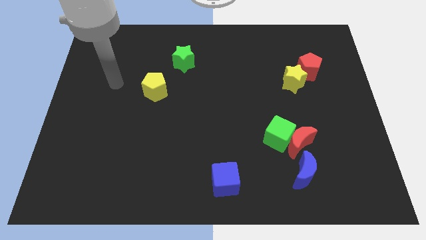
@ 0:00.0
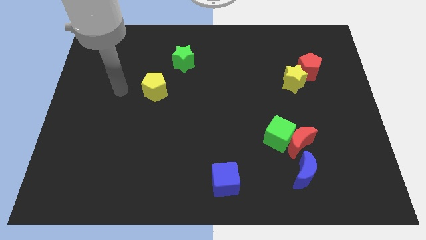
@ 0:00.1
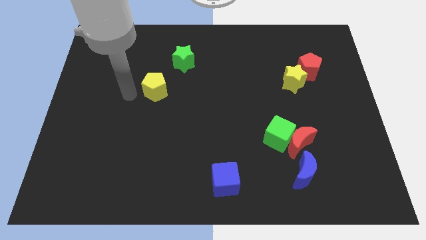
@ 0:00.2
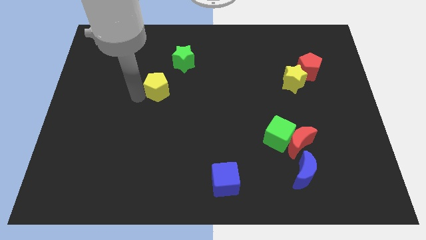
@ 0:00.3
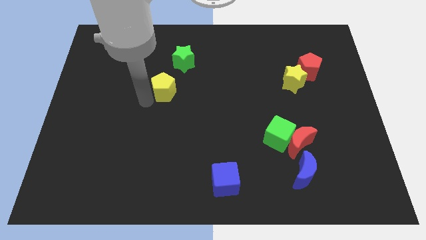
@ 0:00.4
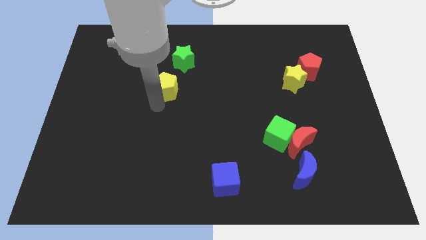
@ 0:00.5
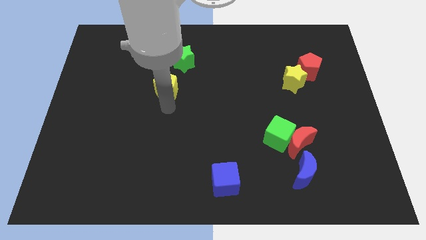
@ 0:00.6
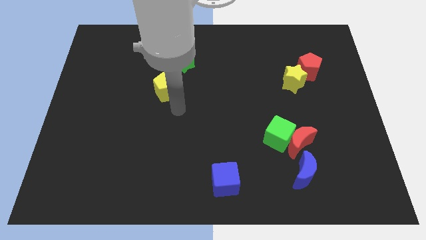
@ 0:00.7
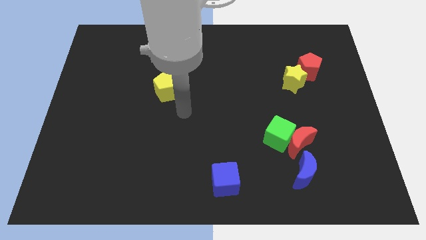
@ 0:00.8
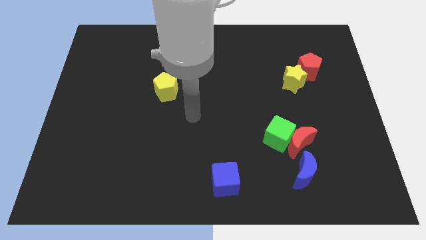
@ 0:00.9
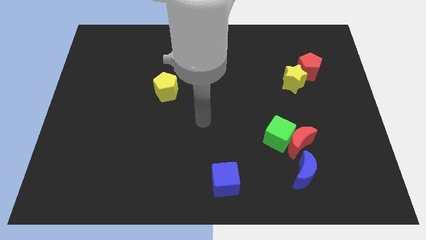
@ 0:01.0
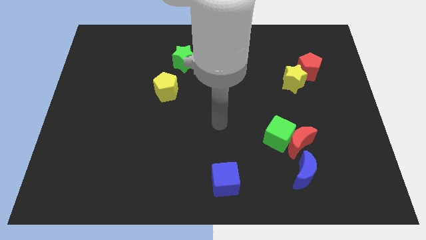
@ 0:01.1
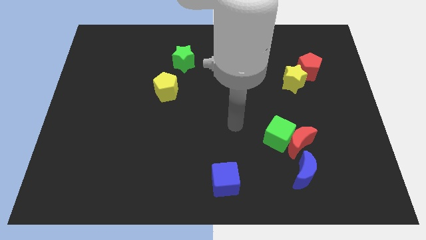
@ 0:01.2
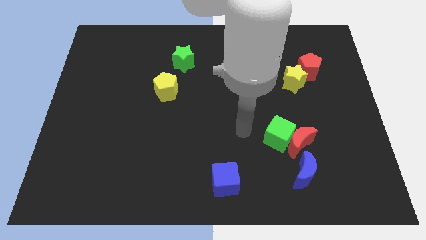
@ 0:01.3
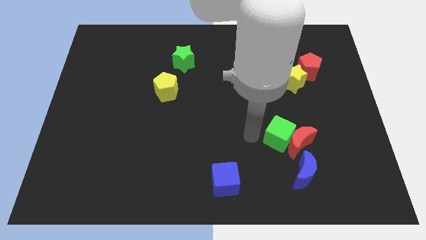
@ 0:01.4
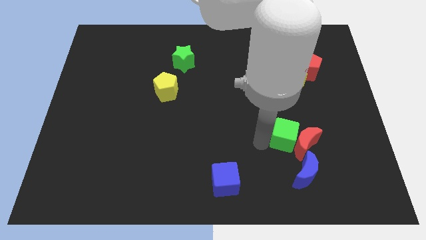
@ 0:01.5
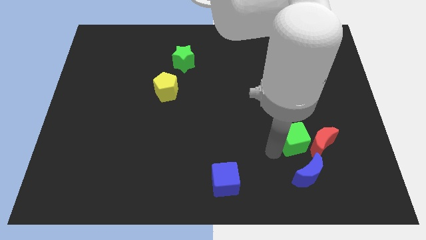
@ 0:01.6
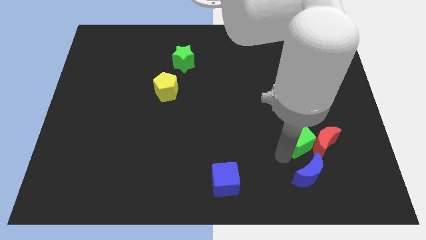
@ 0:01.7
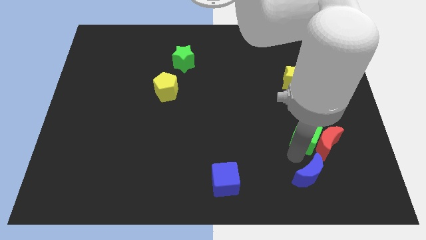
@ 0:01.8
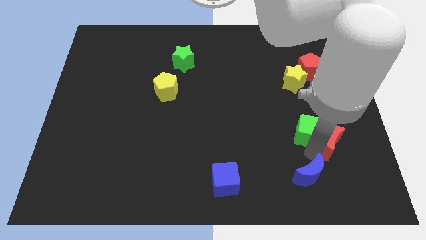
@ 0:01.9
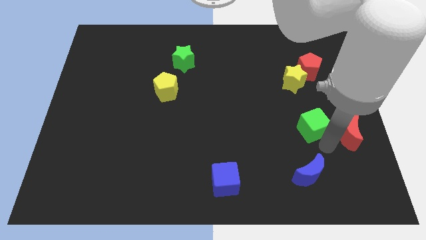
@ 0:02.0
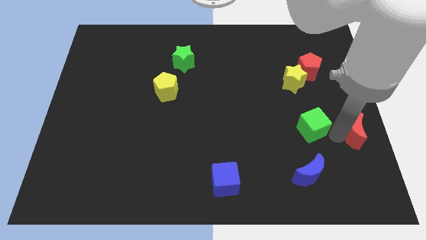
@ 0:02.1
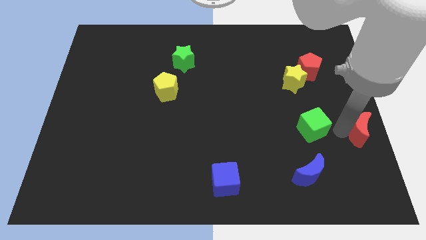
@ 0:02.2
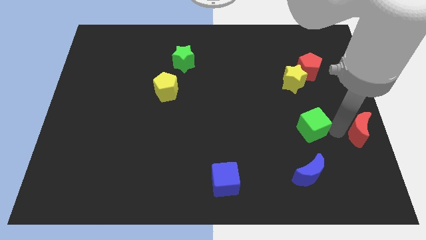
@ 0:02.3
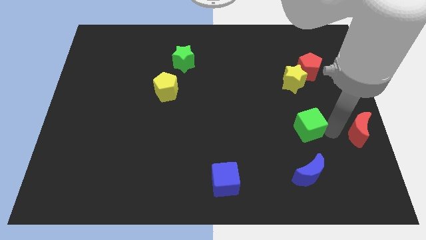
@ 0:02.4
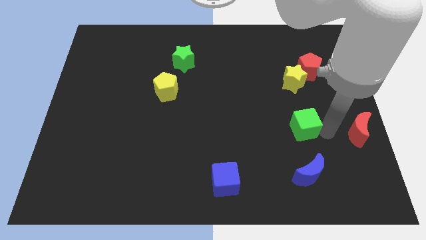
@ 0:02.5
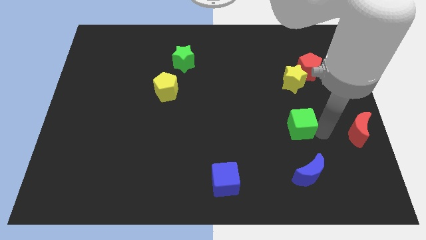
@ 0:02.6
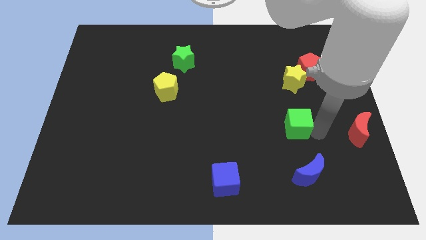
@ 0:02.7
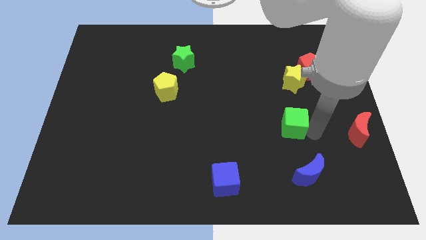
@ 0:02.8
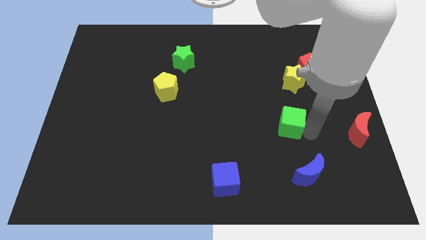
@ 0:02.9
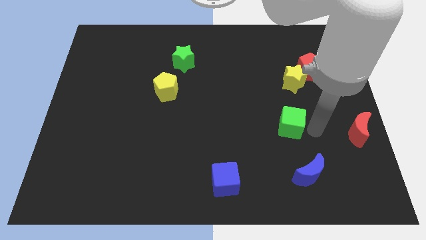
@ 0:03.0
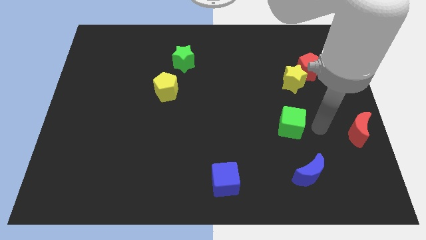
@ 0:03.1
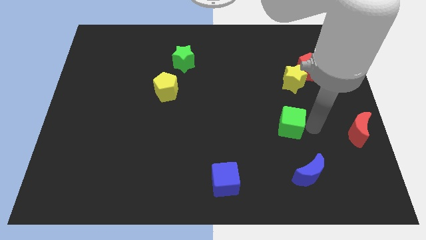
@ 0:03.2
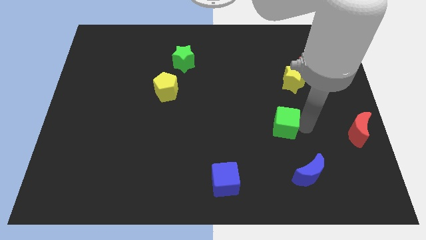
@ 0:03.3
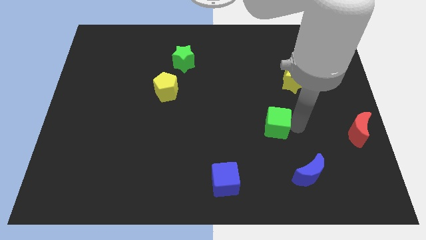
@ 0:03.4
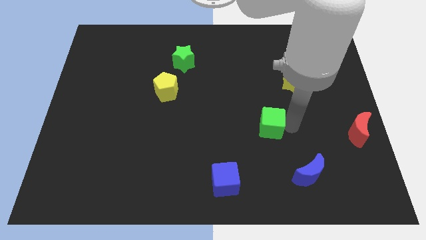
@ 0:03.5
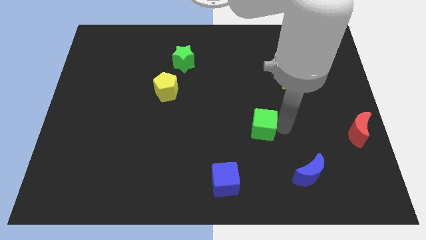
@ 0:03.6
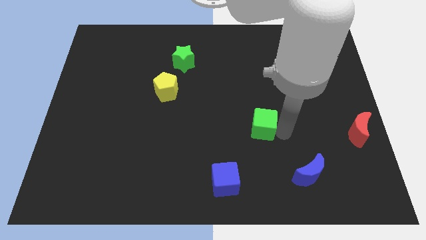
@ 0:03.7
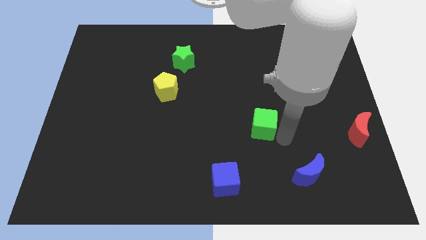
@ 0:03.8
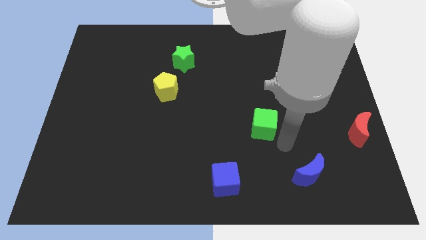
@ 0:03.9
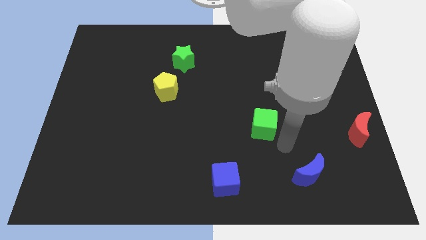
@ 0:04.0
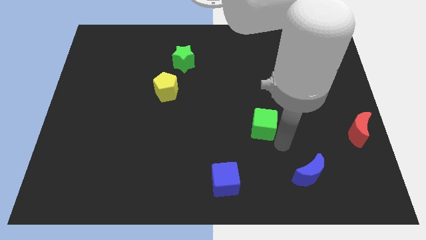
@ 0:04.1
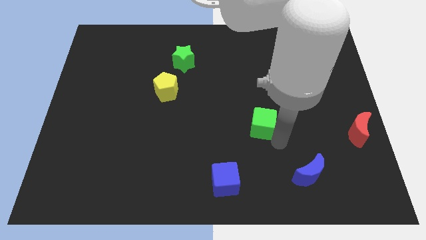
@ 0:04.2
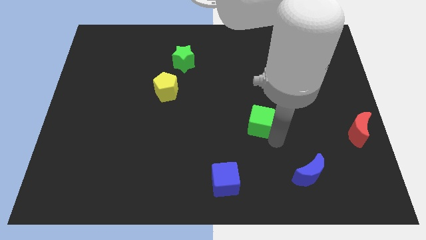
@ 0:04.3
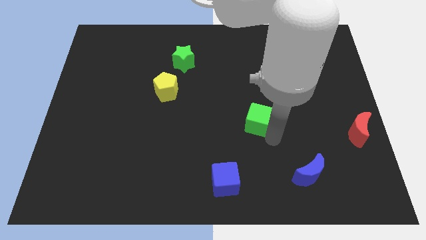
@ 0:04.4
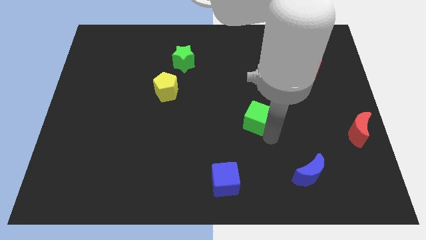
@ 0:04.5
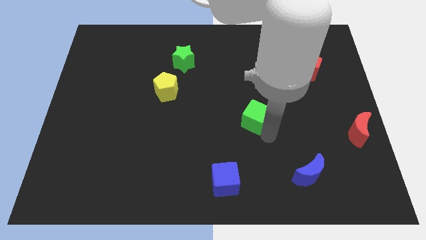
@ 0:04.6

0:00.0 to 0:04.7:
move the green cube a little upwards and left

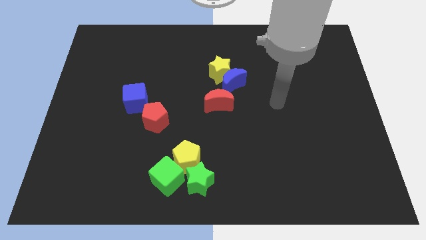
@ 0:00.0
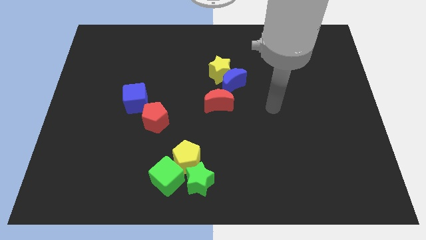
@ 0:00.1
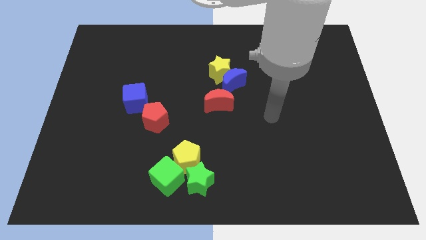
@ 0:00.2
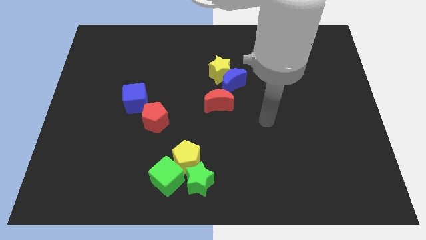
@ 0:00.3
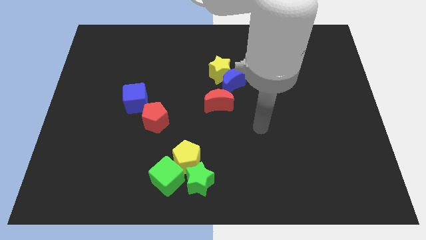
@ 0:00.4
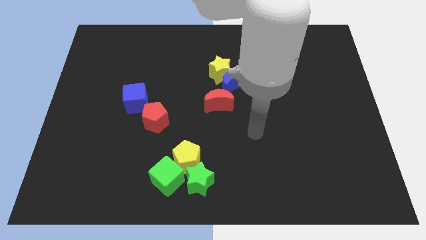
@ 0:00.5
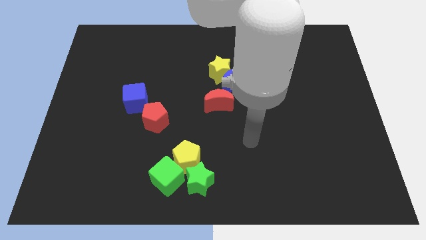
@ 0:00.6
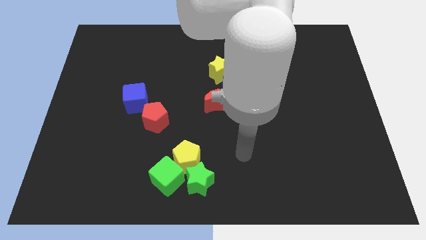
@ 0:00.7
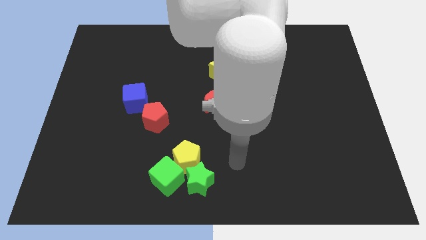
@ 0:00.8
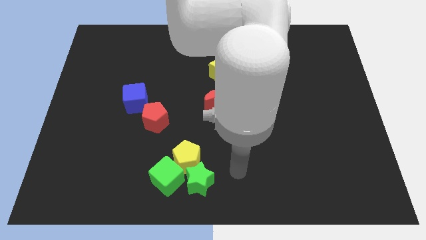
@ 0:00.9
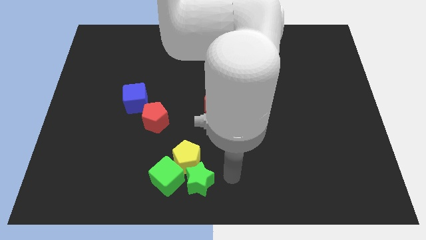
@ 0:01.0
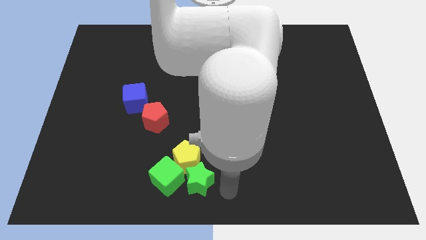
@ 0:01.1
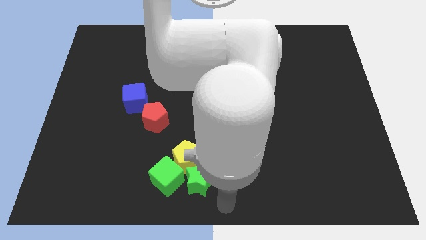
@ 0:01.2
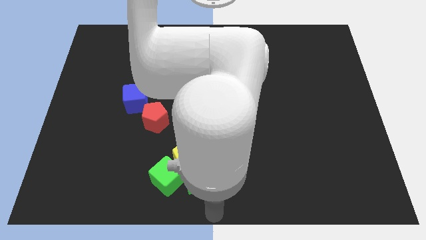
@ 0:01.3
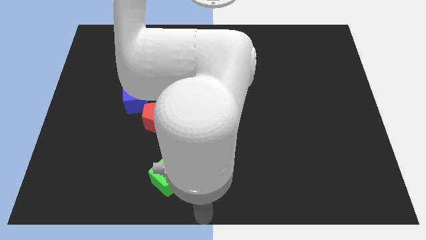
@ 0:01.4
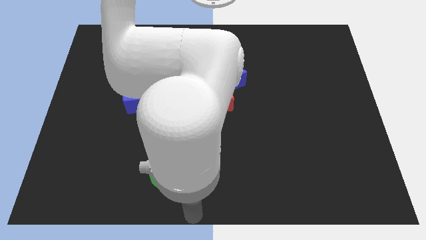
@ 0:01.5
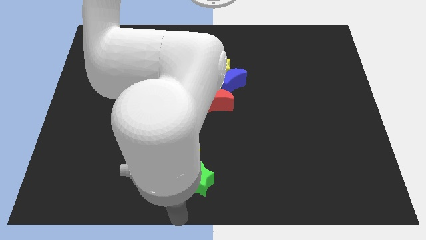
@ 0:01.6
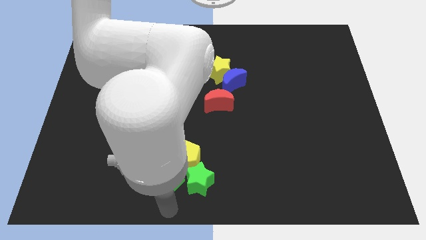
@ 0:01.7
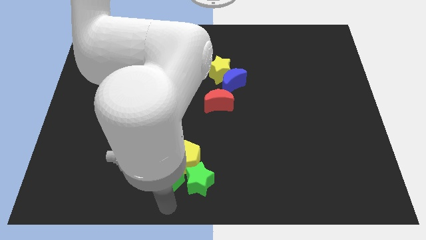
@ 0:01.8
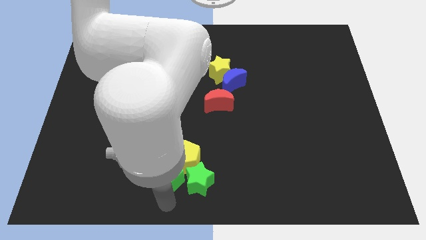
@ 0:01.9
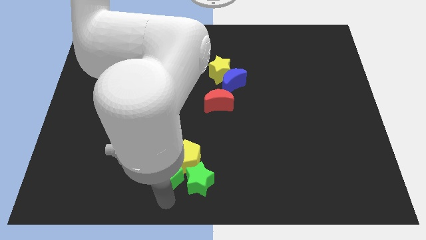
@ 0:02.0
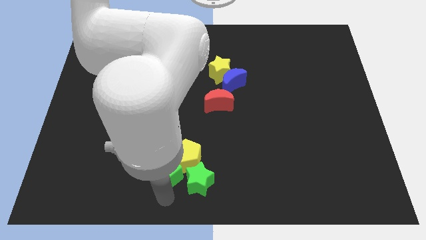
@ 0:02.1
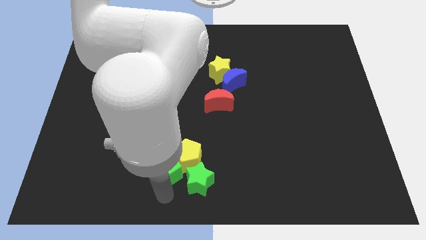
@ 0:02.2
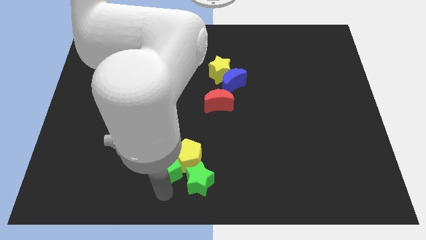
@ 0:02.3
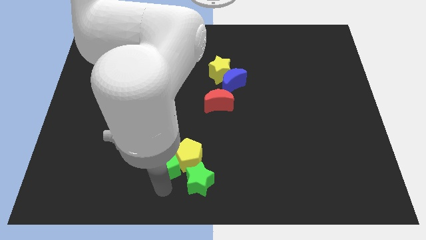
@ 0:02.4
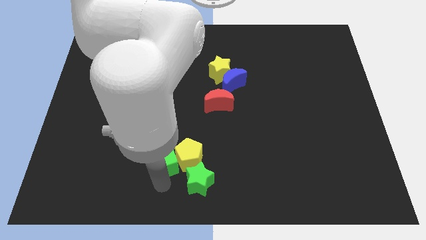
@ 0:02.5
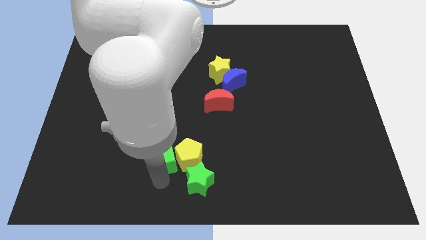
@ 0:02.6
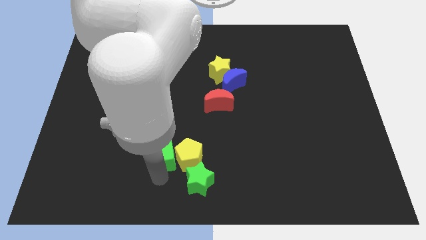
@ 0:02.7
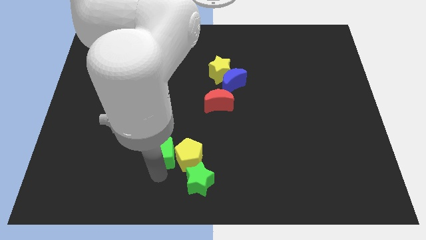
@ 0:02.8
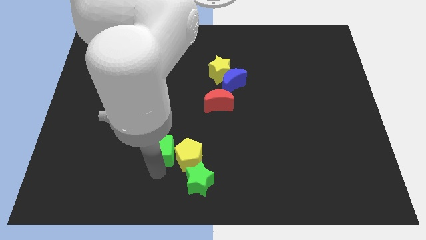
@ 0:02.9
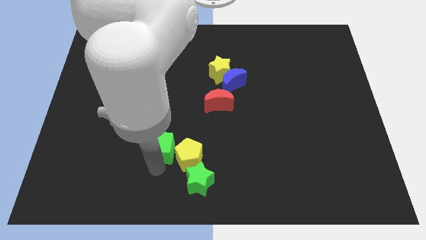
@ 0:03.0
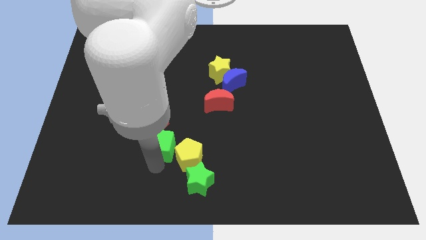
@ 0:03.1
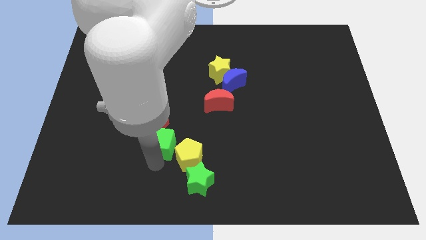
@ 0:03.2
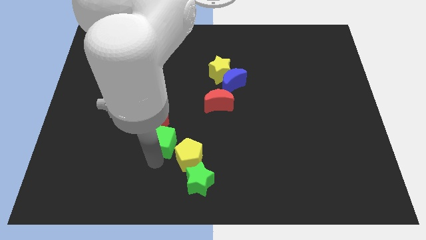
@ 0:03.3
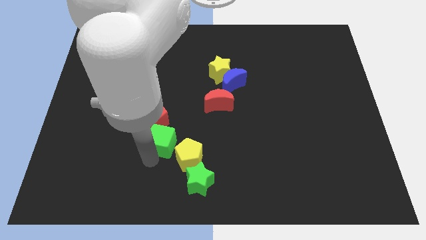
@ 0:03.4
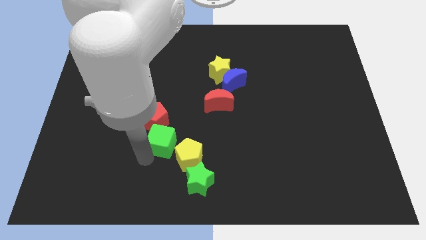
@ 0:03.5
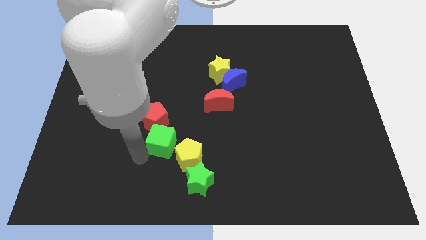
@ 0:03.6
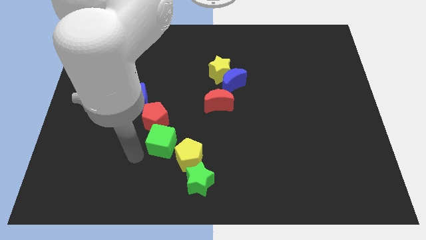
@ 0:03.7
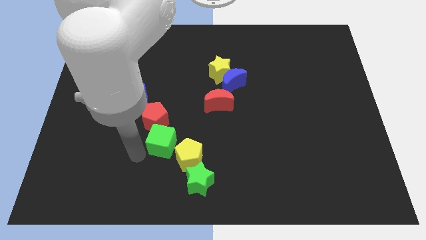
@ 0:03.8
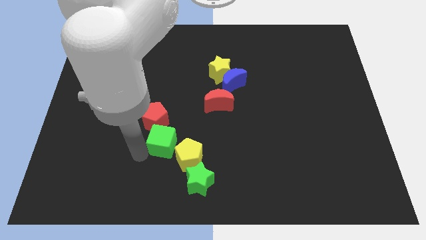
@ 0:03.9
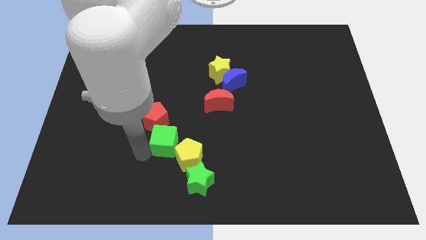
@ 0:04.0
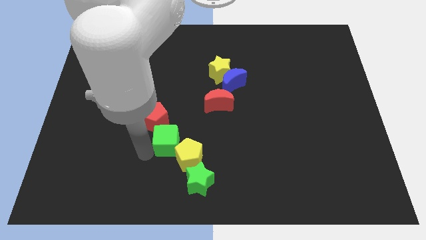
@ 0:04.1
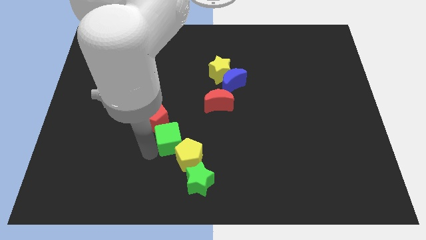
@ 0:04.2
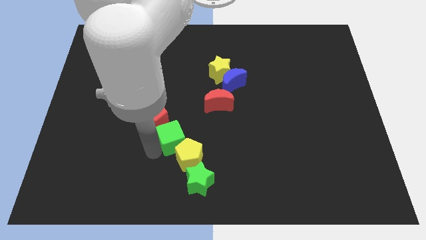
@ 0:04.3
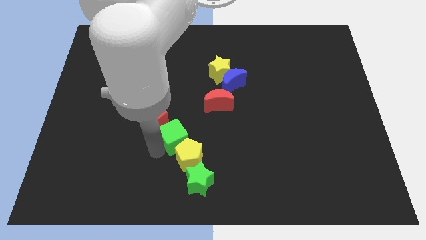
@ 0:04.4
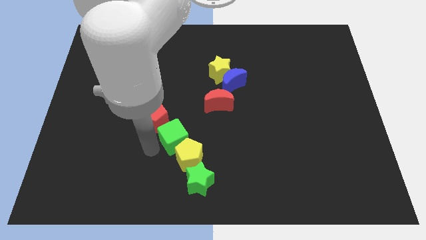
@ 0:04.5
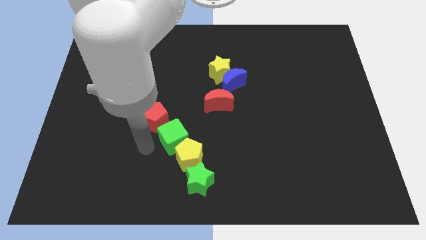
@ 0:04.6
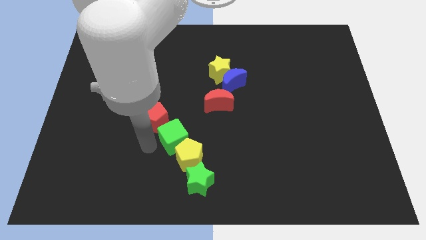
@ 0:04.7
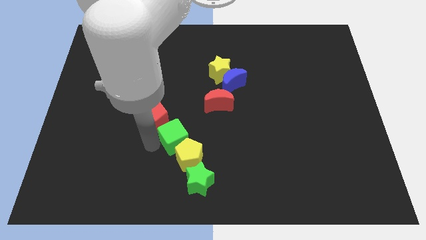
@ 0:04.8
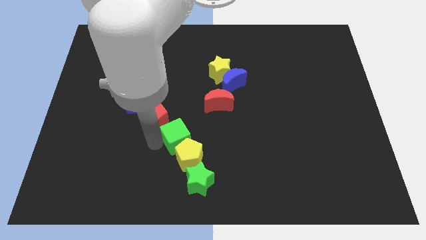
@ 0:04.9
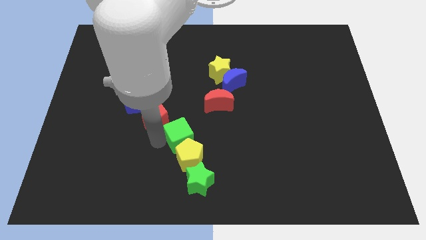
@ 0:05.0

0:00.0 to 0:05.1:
move the green cube a little bit diagonally upwards and right
